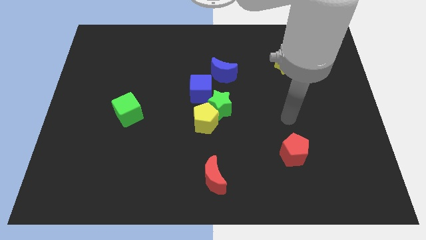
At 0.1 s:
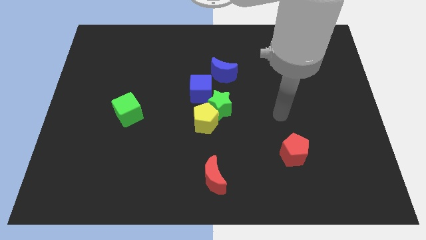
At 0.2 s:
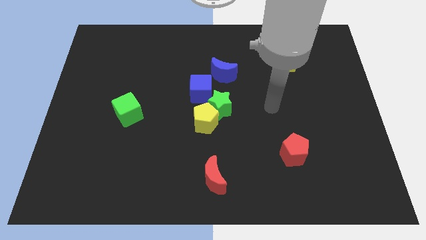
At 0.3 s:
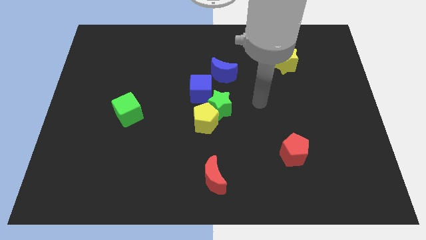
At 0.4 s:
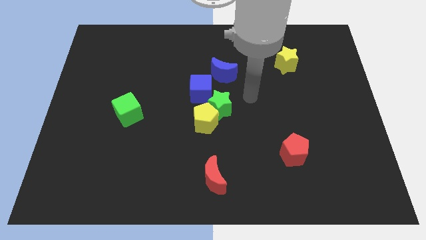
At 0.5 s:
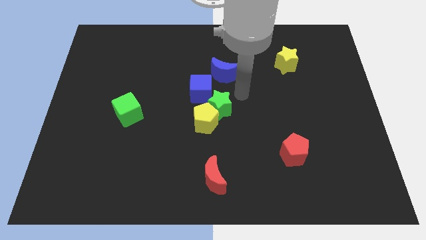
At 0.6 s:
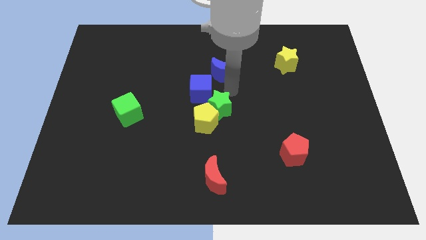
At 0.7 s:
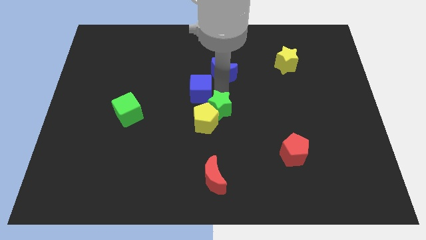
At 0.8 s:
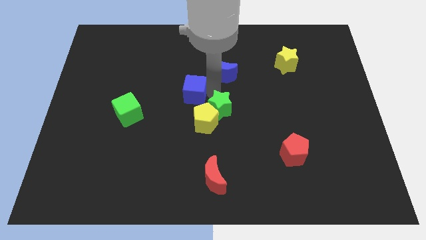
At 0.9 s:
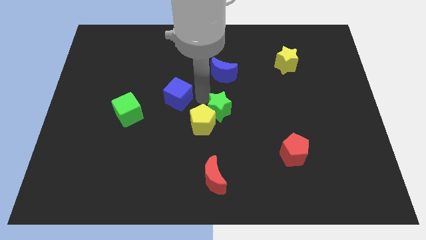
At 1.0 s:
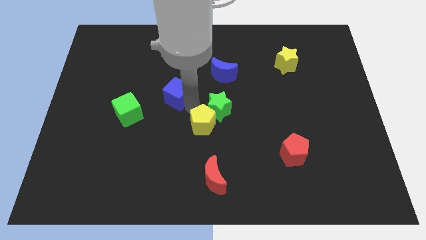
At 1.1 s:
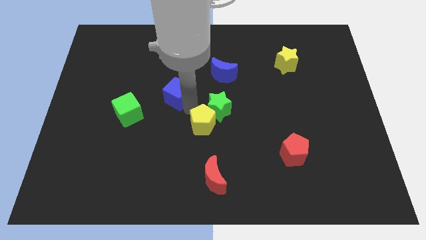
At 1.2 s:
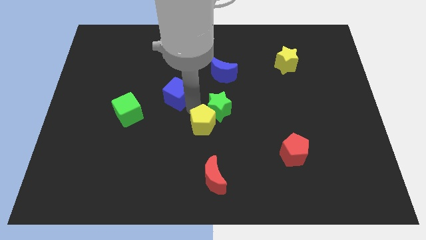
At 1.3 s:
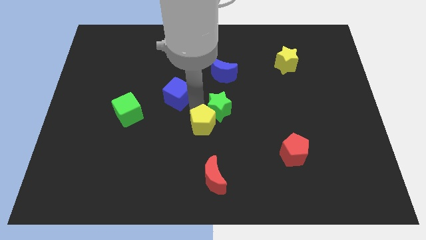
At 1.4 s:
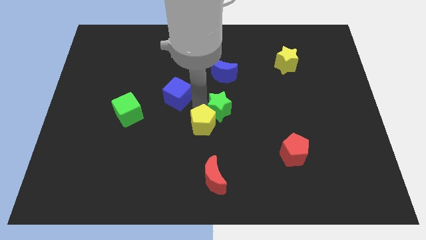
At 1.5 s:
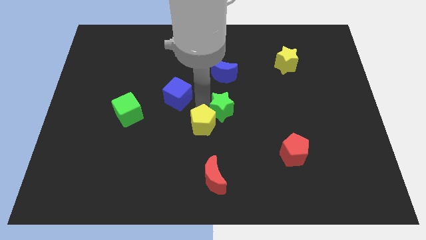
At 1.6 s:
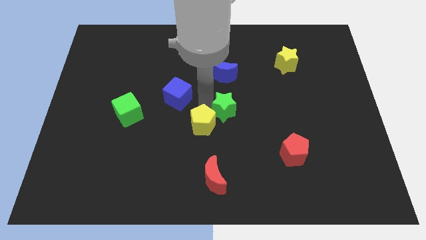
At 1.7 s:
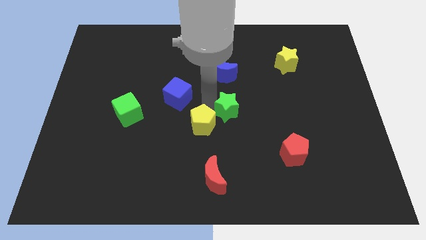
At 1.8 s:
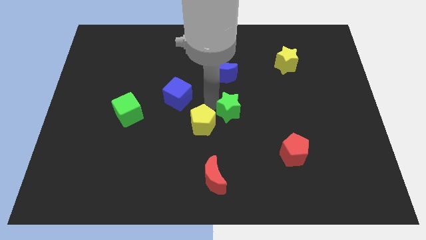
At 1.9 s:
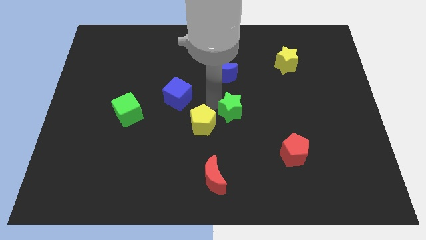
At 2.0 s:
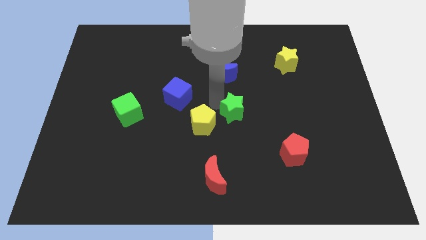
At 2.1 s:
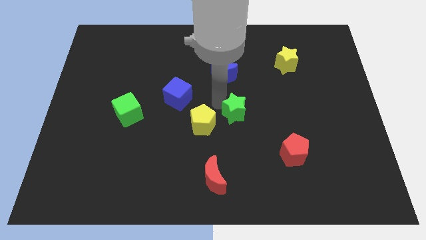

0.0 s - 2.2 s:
move the green star away from the yellow pentagon and blue cube

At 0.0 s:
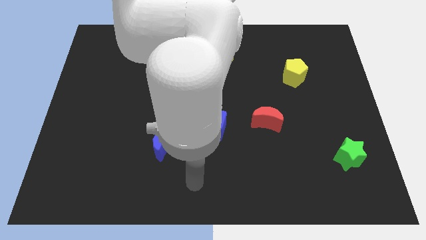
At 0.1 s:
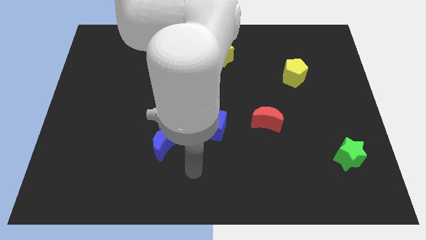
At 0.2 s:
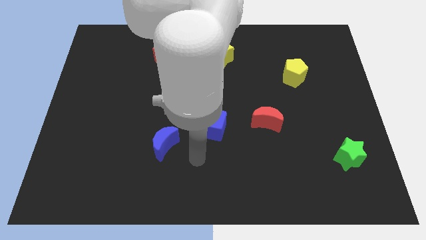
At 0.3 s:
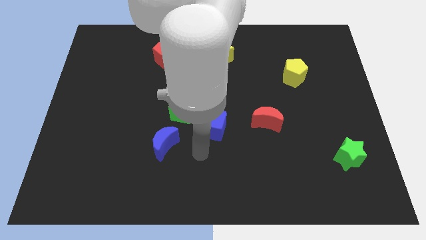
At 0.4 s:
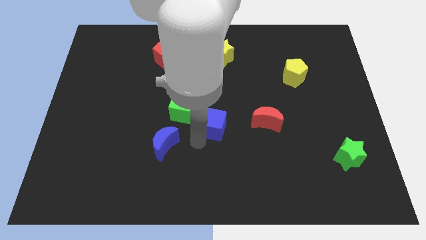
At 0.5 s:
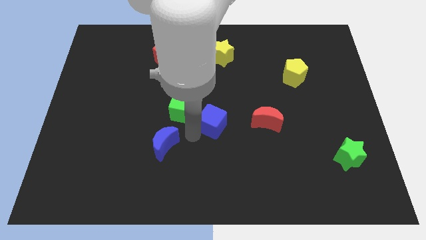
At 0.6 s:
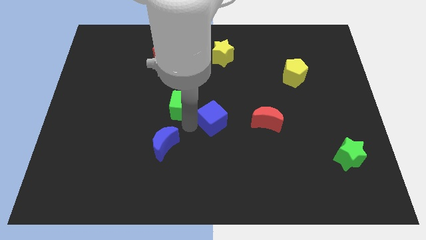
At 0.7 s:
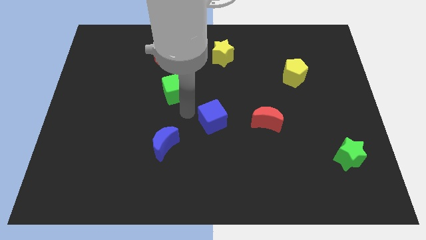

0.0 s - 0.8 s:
move the blue cube away from the green cube

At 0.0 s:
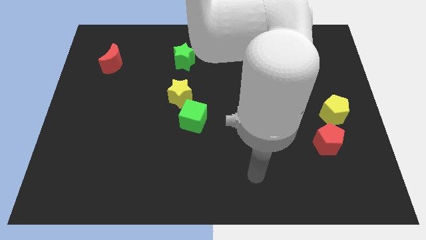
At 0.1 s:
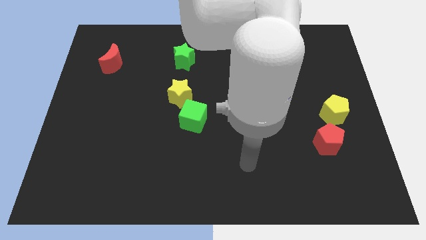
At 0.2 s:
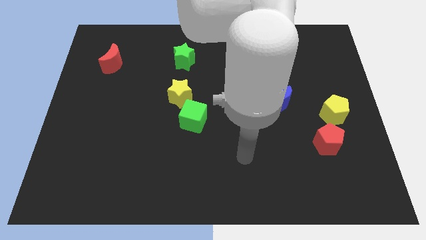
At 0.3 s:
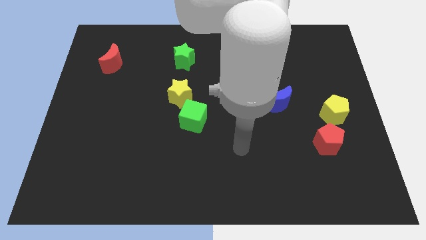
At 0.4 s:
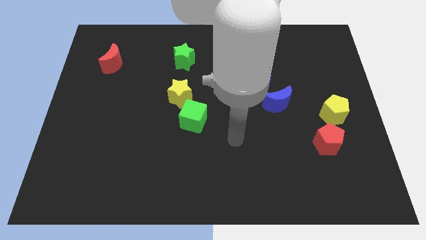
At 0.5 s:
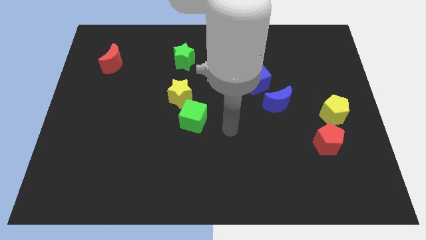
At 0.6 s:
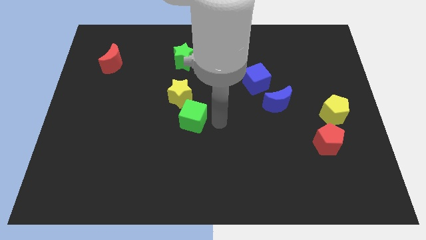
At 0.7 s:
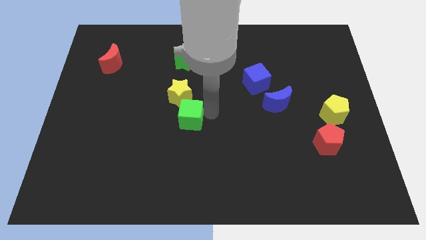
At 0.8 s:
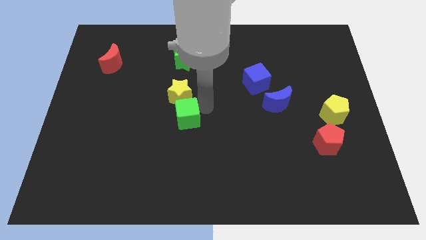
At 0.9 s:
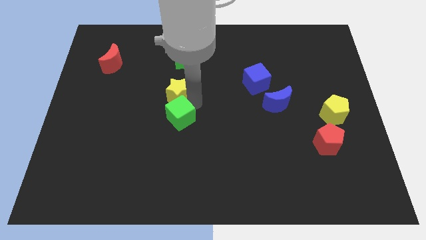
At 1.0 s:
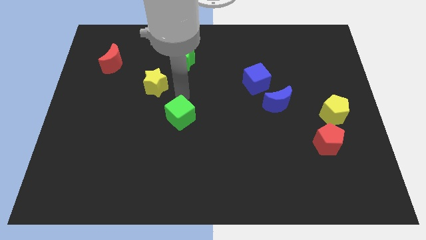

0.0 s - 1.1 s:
pull the green cube apart from the yellow star

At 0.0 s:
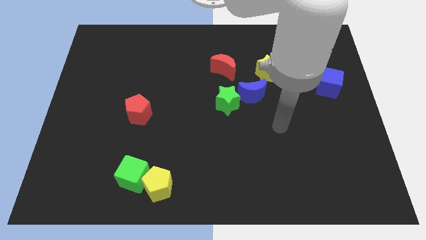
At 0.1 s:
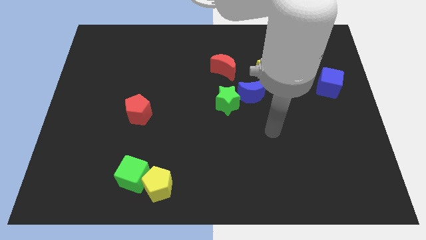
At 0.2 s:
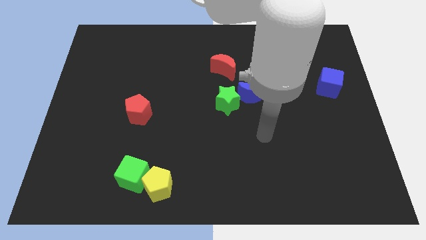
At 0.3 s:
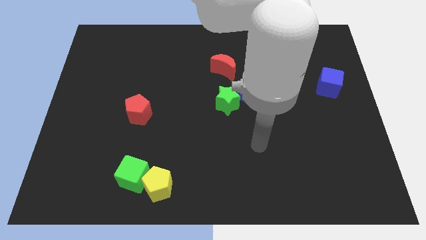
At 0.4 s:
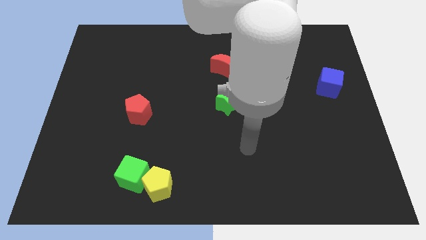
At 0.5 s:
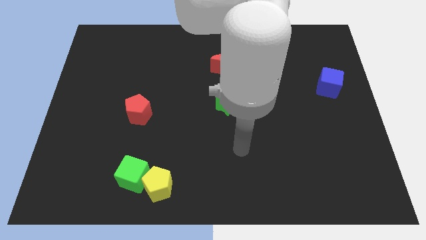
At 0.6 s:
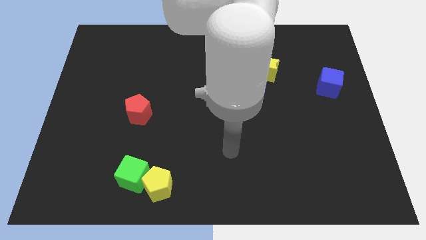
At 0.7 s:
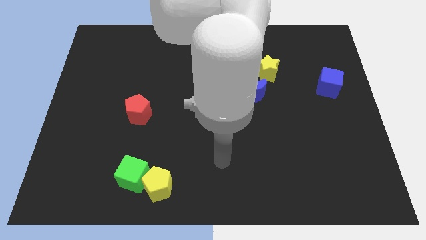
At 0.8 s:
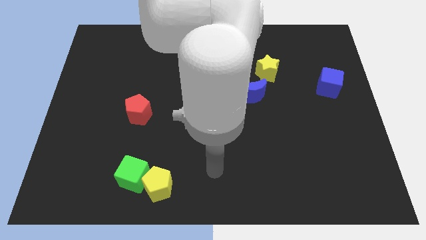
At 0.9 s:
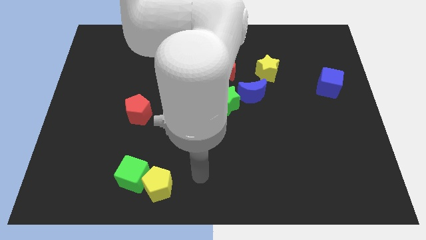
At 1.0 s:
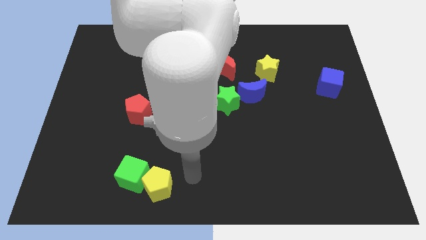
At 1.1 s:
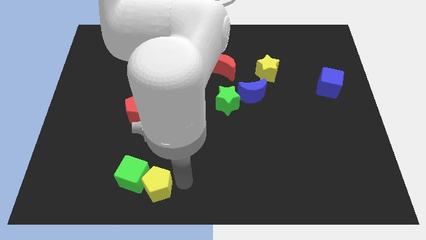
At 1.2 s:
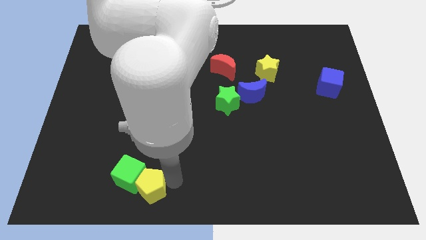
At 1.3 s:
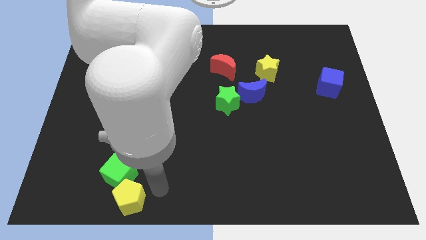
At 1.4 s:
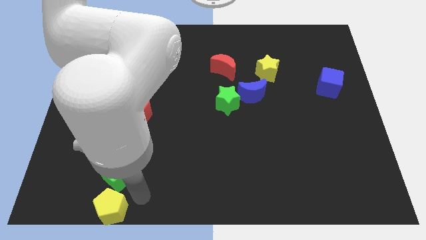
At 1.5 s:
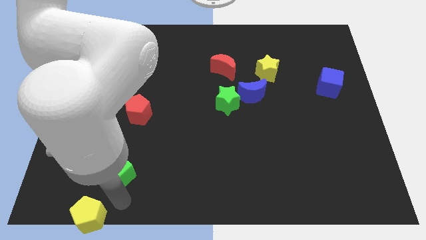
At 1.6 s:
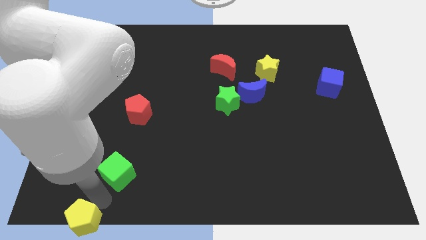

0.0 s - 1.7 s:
separate the green cube from the yellow pentagon

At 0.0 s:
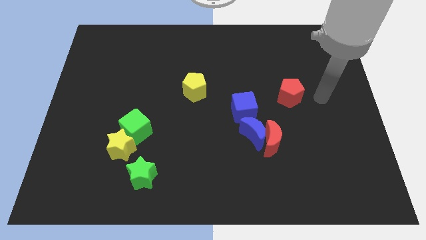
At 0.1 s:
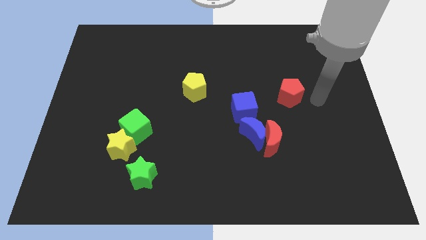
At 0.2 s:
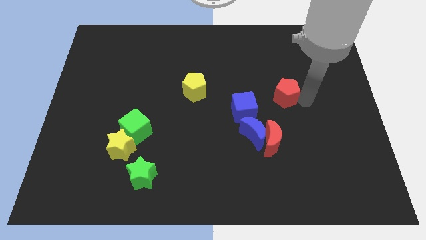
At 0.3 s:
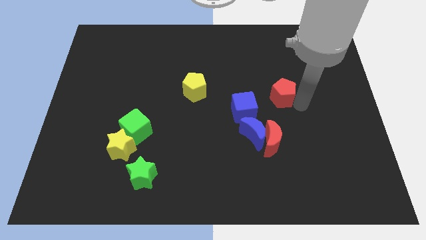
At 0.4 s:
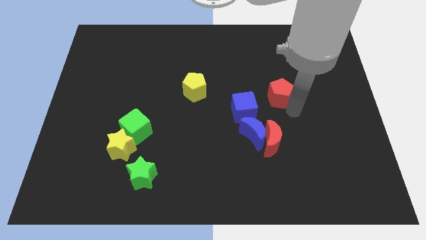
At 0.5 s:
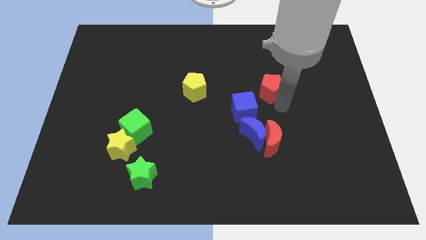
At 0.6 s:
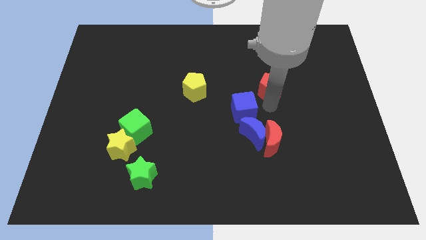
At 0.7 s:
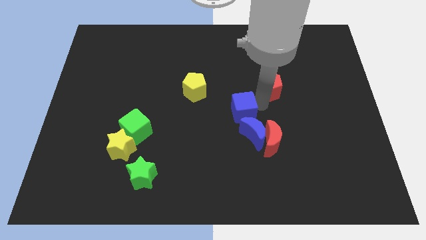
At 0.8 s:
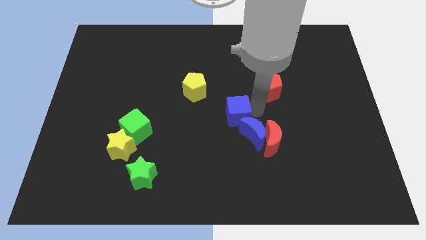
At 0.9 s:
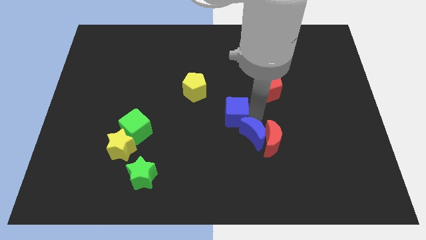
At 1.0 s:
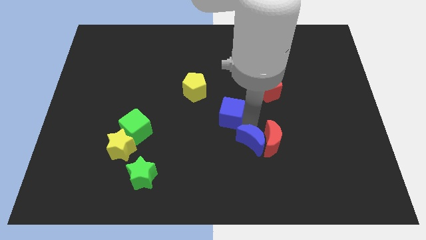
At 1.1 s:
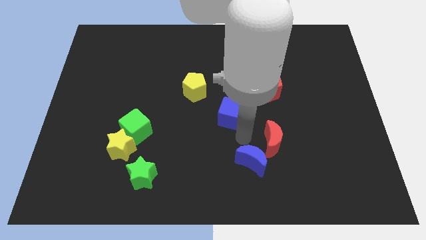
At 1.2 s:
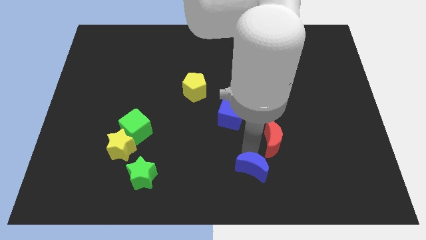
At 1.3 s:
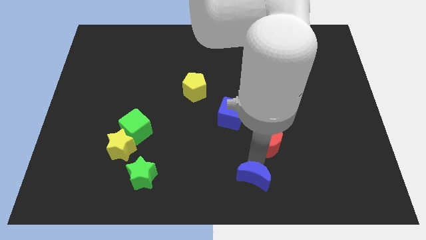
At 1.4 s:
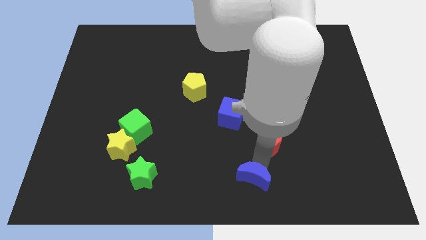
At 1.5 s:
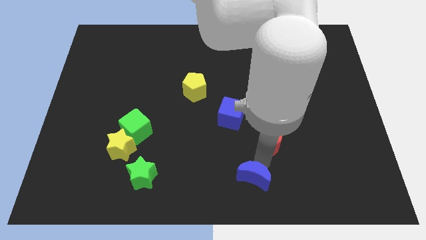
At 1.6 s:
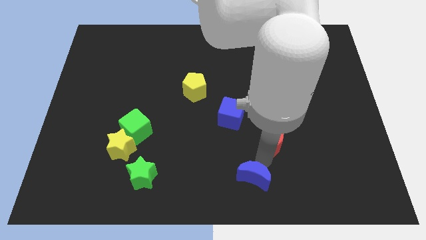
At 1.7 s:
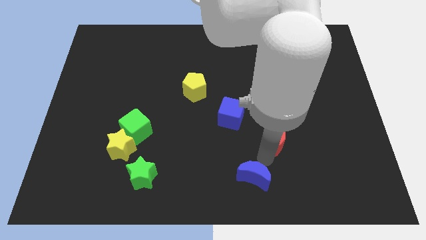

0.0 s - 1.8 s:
separate the red moon from the blue moon

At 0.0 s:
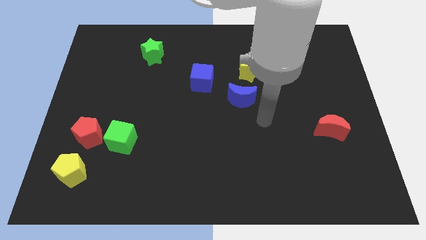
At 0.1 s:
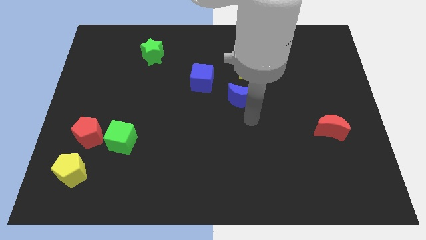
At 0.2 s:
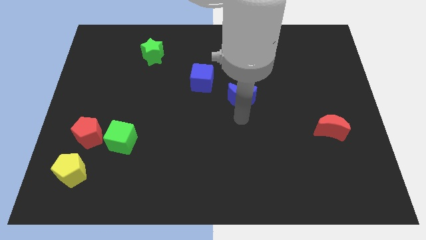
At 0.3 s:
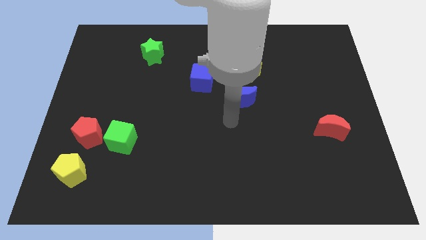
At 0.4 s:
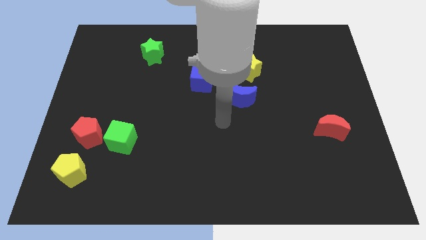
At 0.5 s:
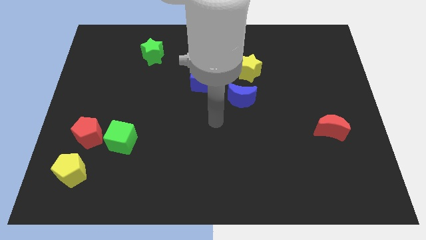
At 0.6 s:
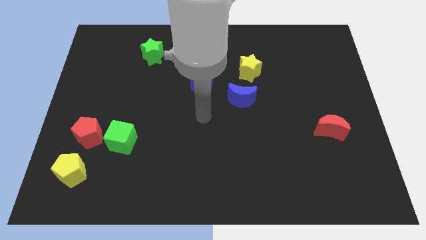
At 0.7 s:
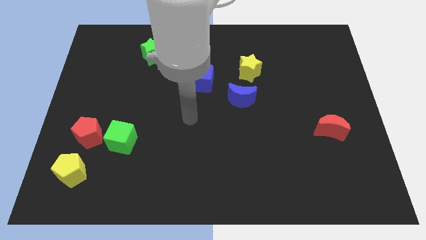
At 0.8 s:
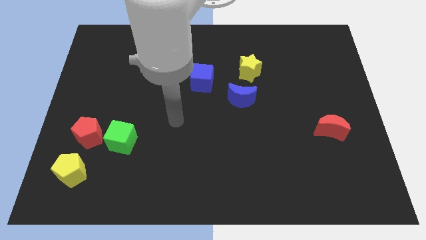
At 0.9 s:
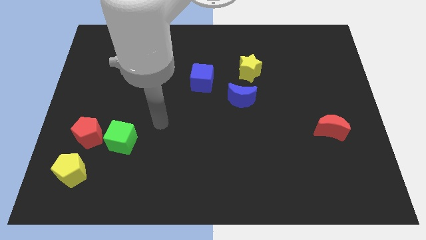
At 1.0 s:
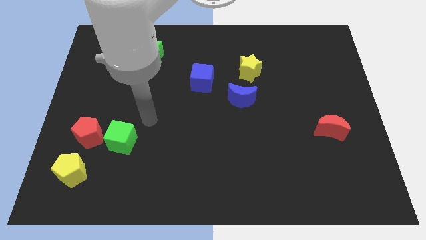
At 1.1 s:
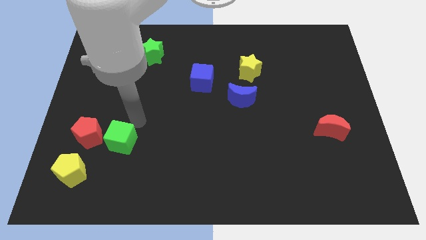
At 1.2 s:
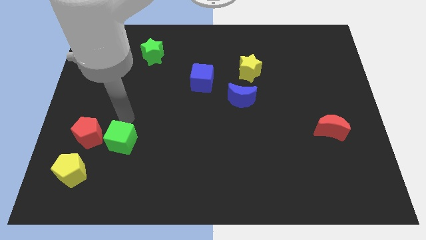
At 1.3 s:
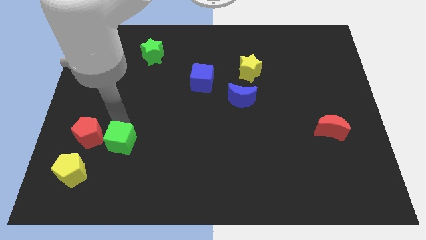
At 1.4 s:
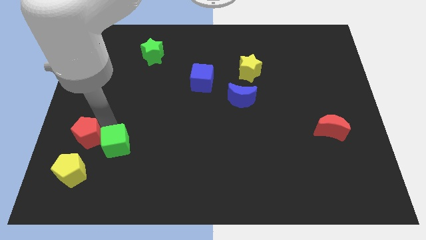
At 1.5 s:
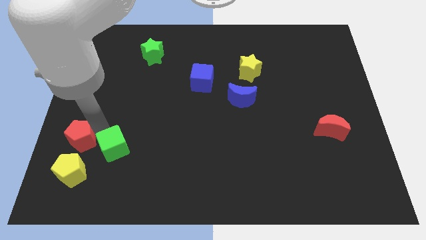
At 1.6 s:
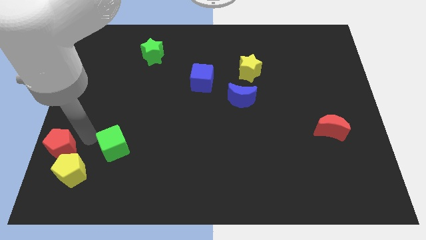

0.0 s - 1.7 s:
pull the green cube apart from the red pentagon
